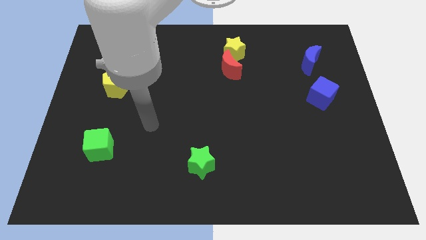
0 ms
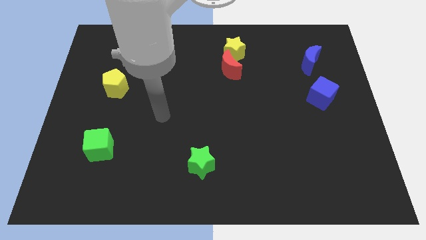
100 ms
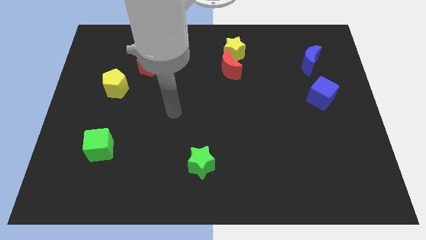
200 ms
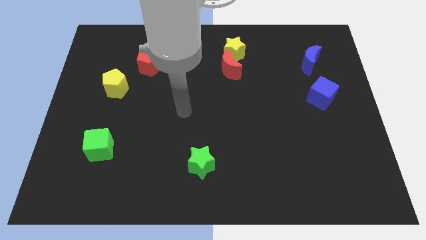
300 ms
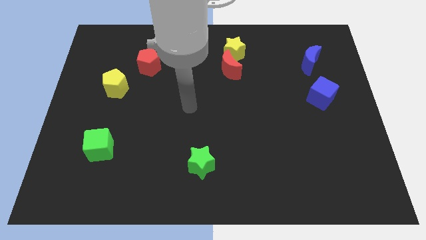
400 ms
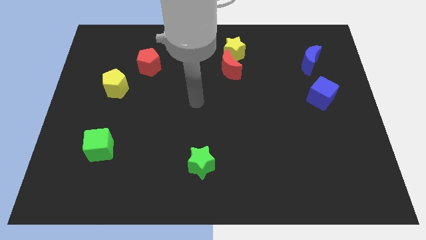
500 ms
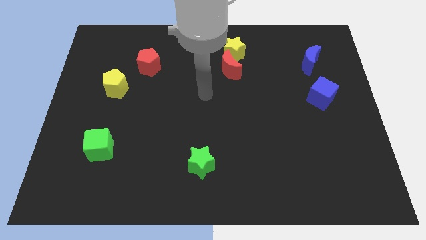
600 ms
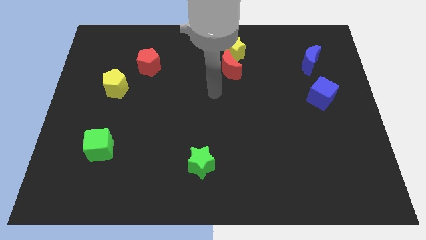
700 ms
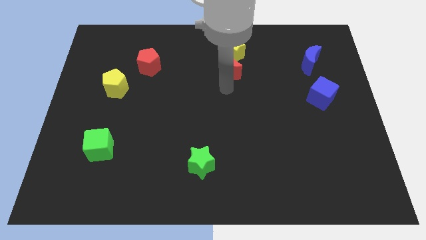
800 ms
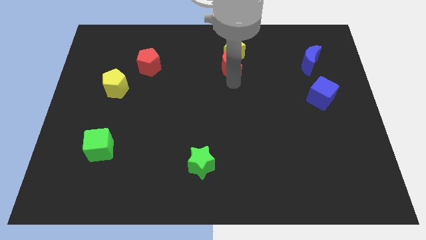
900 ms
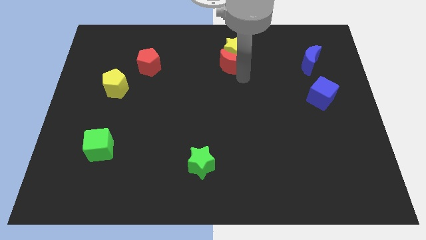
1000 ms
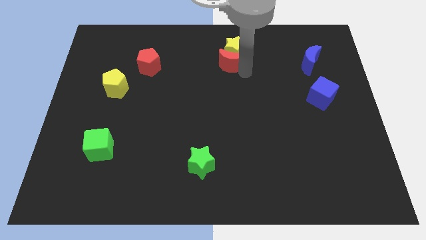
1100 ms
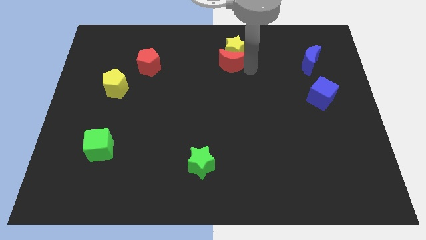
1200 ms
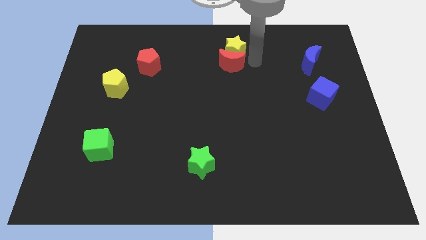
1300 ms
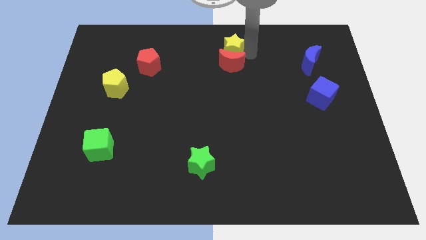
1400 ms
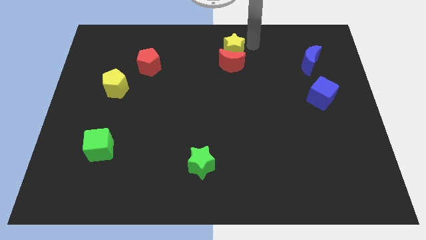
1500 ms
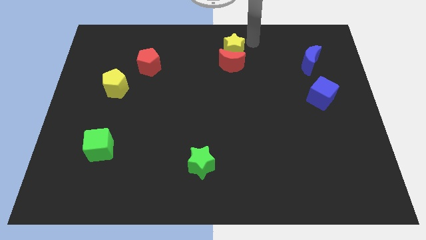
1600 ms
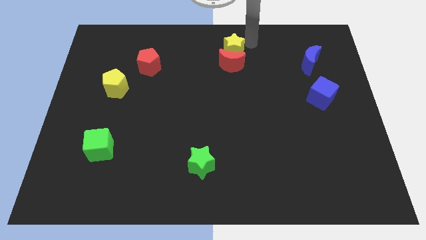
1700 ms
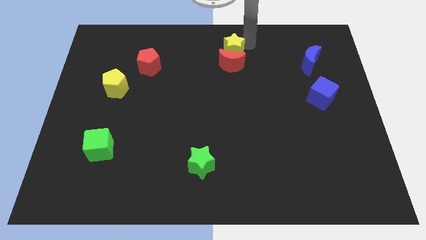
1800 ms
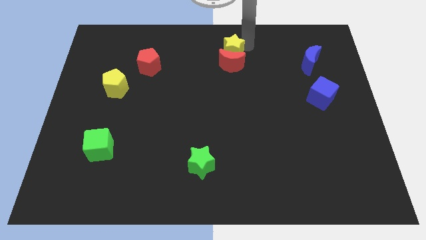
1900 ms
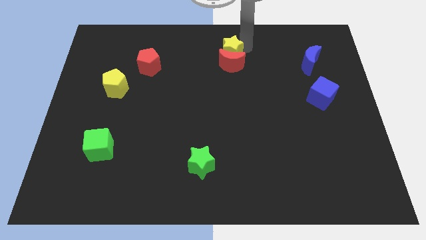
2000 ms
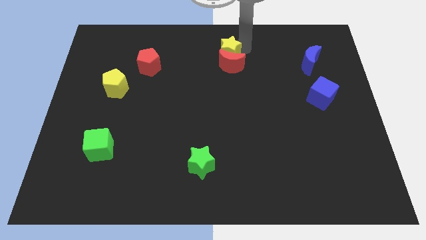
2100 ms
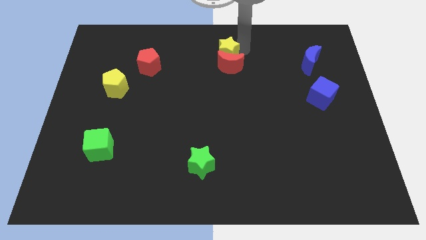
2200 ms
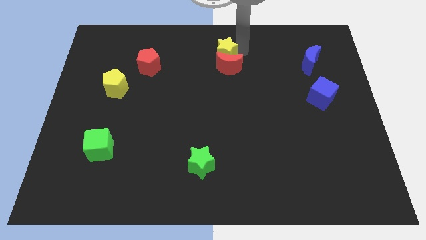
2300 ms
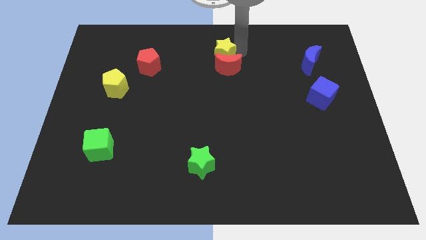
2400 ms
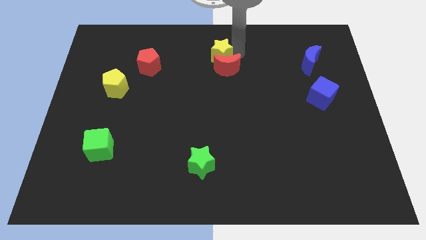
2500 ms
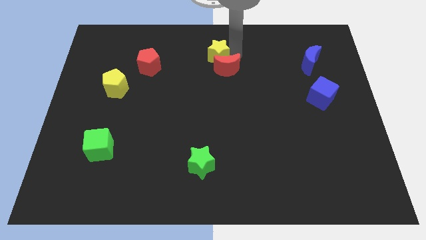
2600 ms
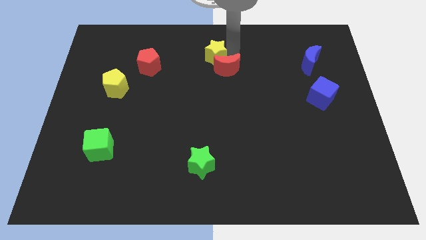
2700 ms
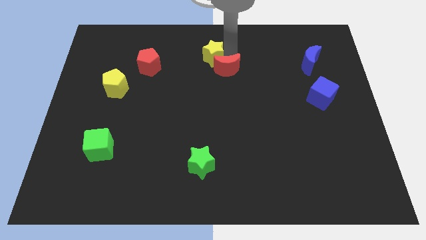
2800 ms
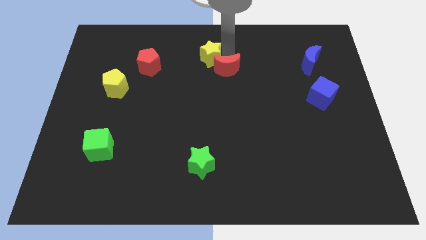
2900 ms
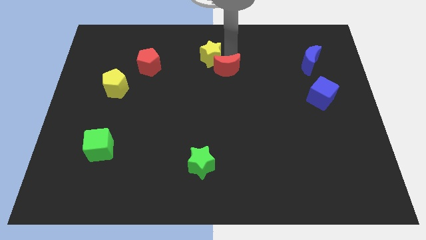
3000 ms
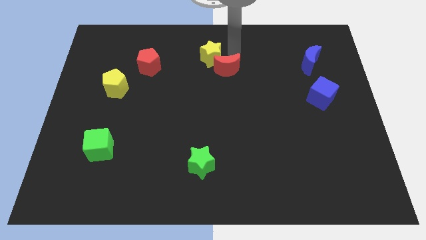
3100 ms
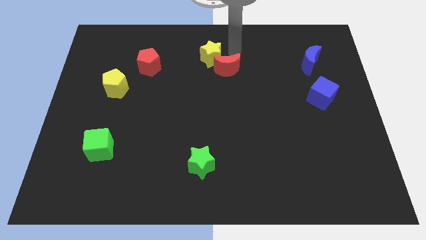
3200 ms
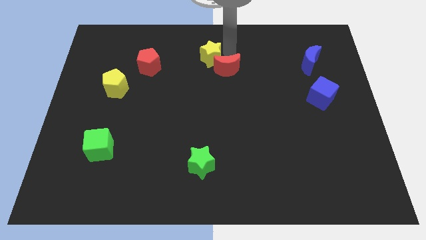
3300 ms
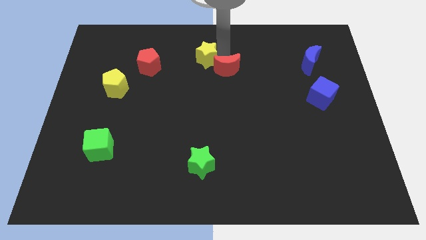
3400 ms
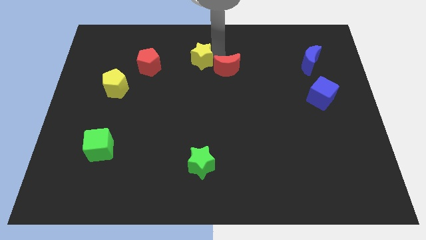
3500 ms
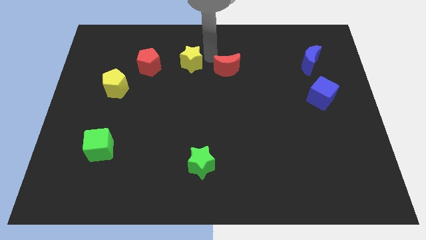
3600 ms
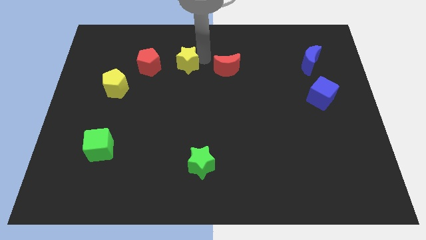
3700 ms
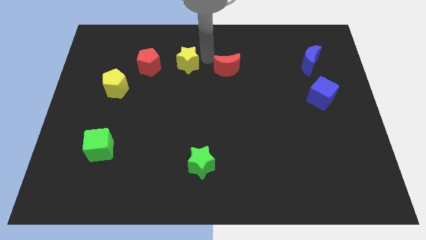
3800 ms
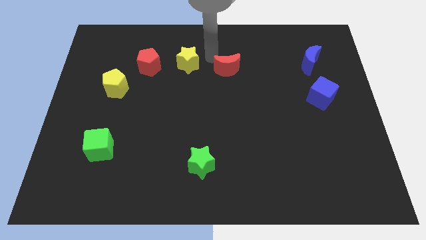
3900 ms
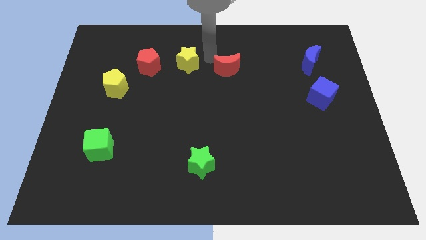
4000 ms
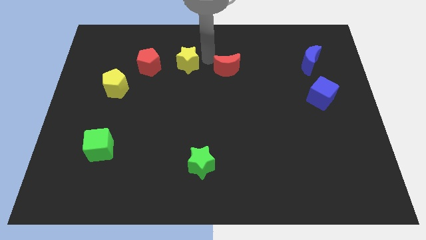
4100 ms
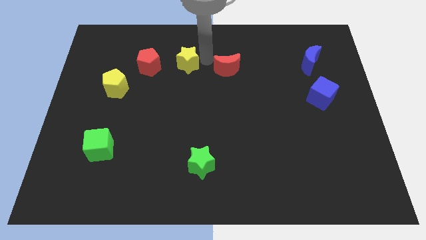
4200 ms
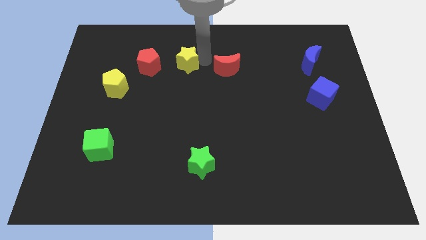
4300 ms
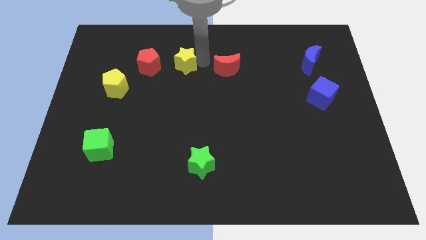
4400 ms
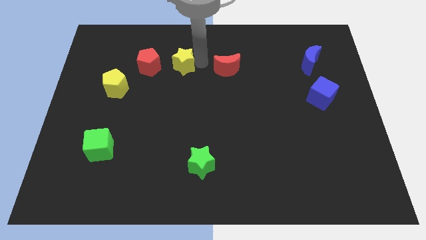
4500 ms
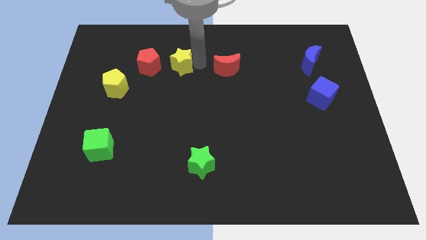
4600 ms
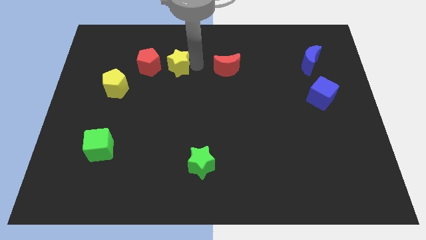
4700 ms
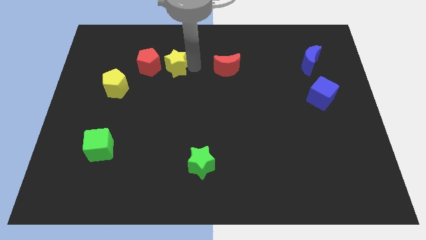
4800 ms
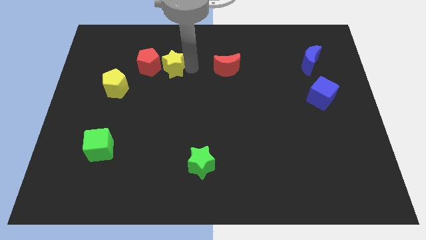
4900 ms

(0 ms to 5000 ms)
move the yellow star next to the red pentagon

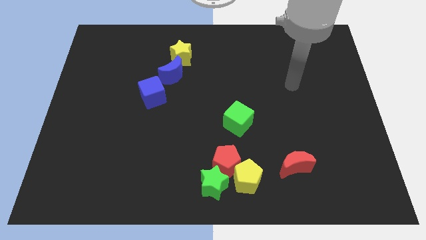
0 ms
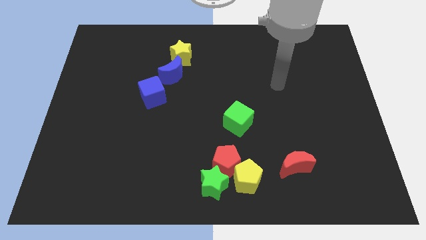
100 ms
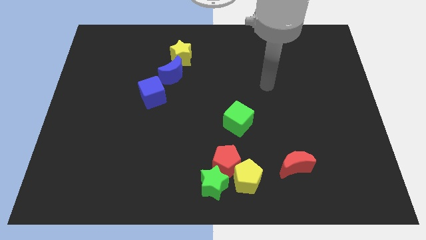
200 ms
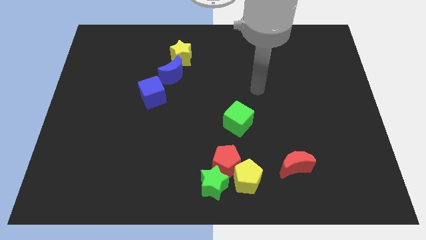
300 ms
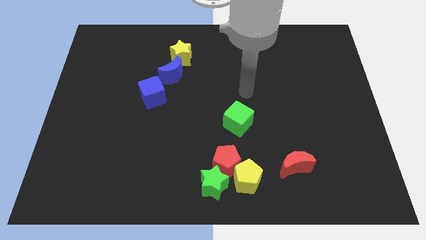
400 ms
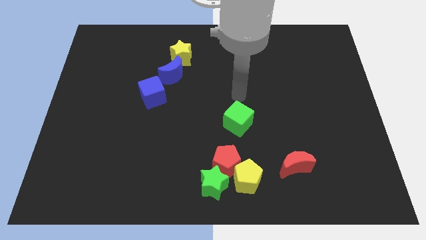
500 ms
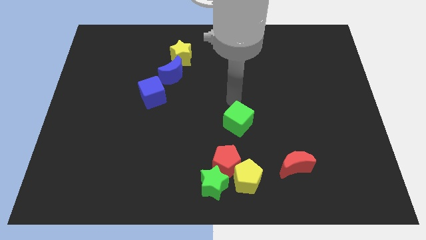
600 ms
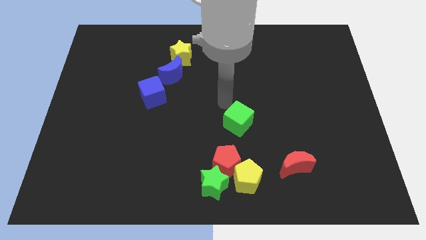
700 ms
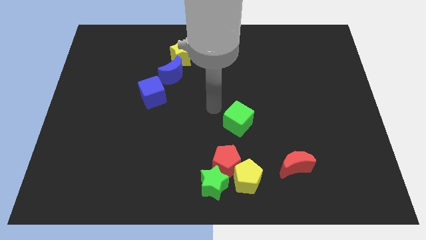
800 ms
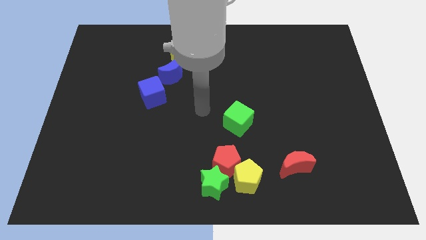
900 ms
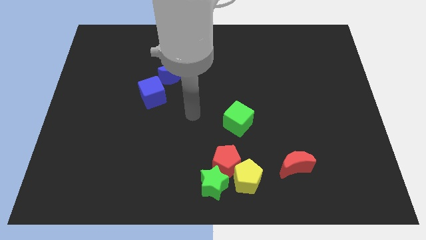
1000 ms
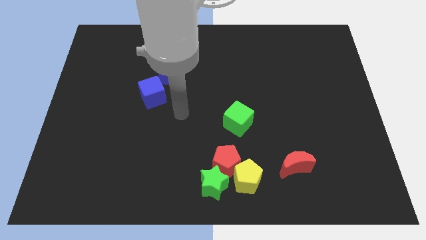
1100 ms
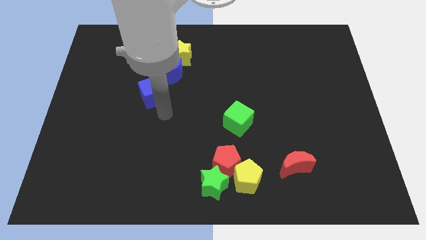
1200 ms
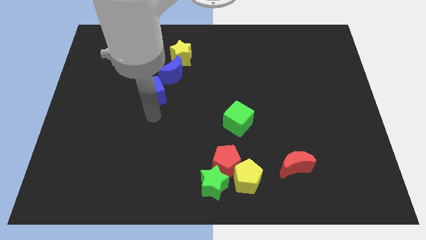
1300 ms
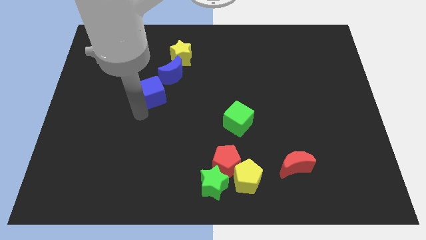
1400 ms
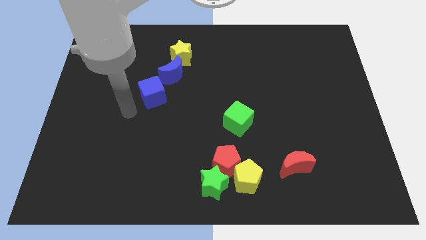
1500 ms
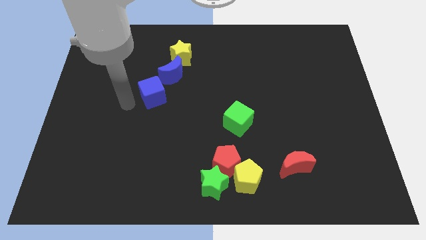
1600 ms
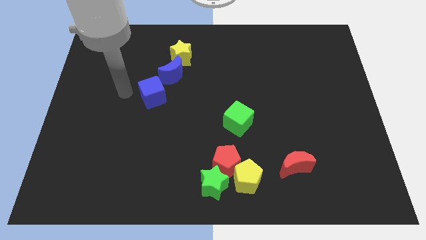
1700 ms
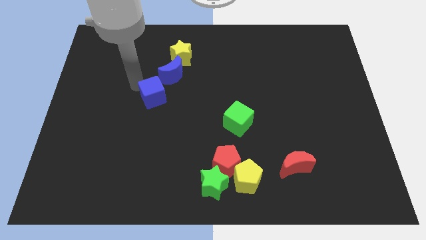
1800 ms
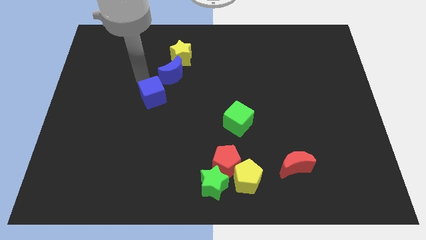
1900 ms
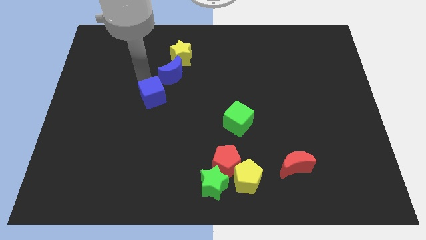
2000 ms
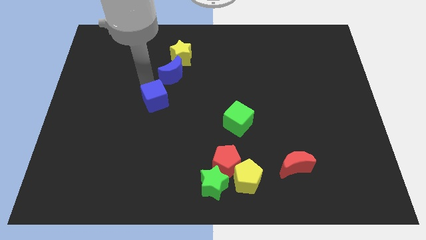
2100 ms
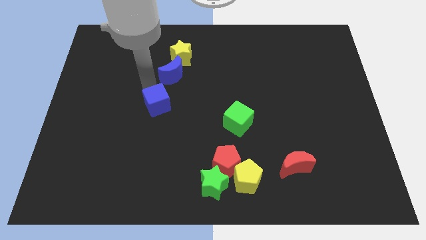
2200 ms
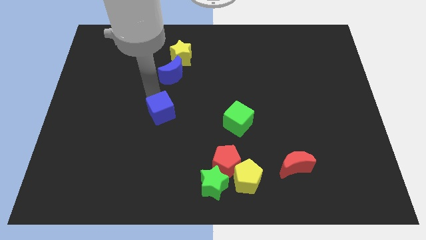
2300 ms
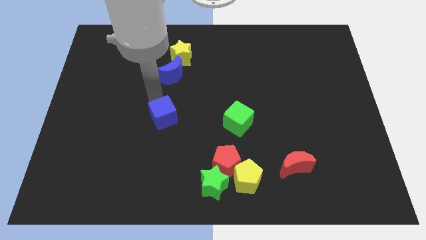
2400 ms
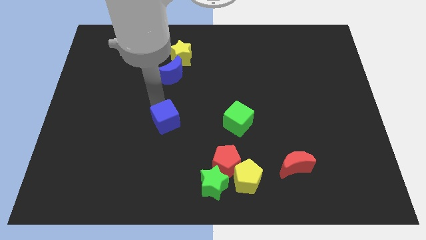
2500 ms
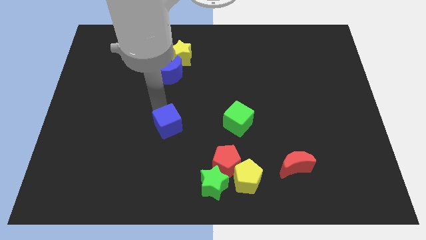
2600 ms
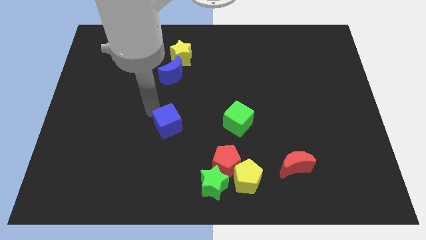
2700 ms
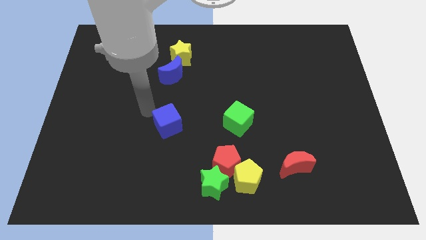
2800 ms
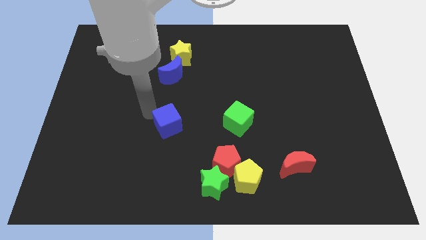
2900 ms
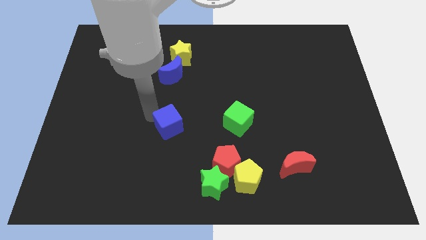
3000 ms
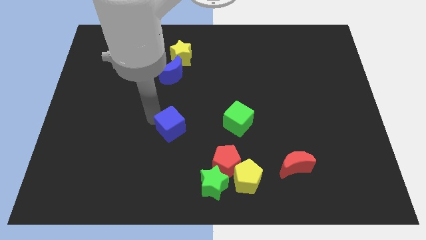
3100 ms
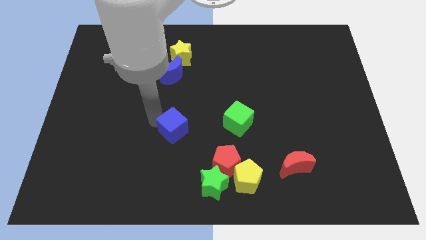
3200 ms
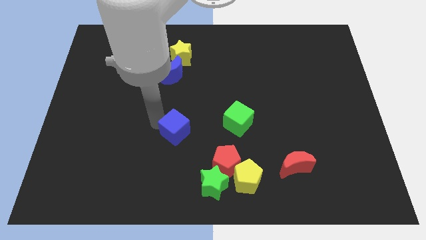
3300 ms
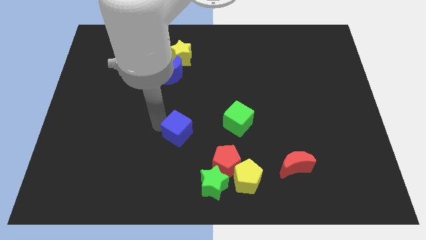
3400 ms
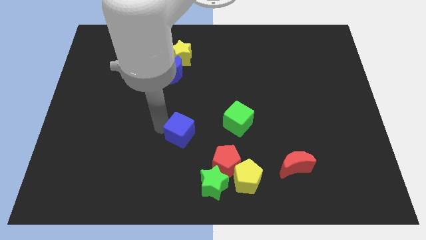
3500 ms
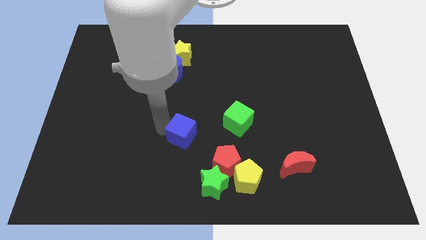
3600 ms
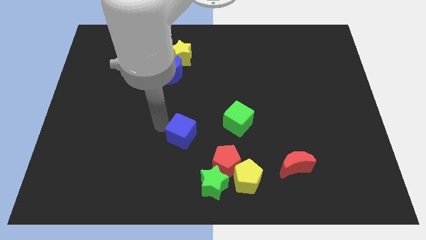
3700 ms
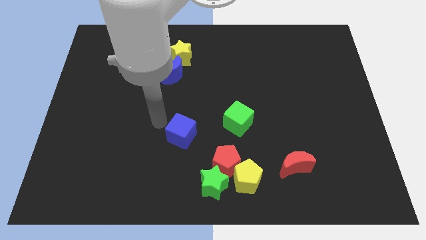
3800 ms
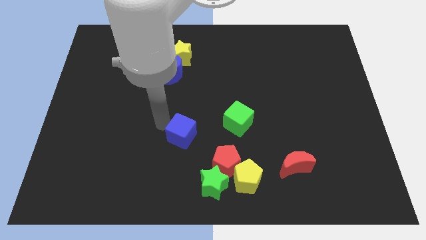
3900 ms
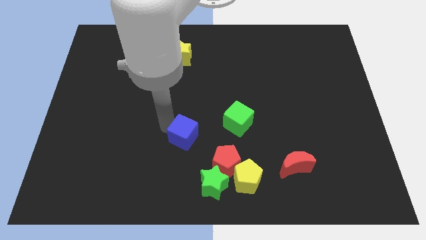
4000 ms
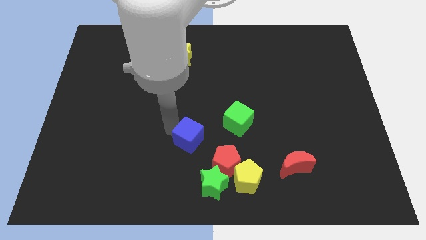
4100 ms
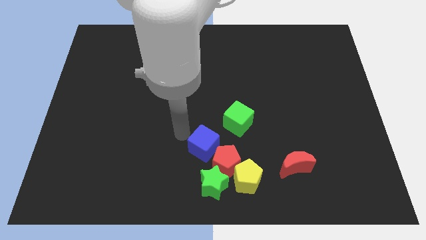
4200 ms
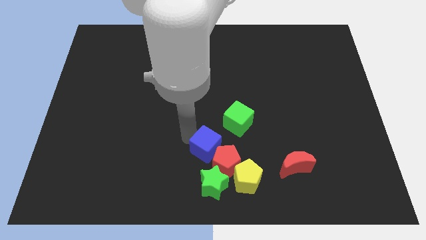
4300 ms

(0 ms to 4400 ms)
push the blue cube to the red pentagon
